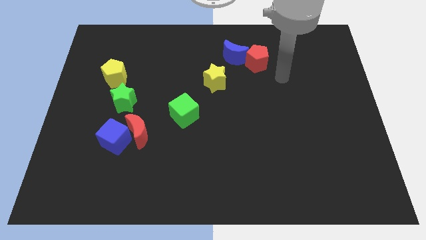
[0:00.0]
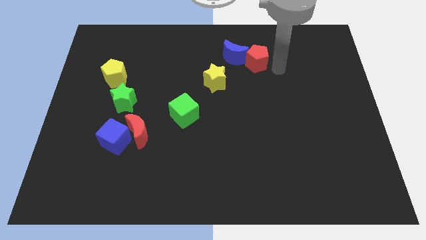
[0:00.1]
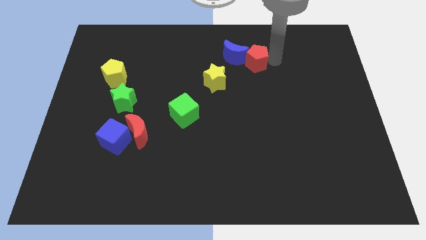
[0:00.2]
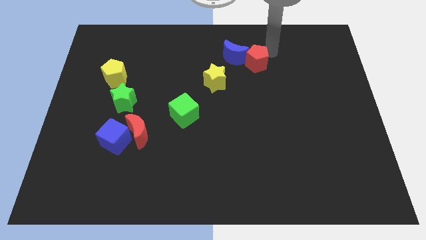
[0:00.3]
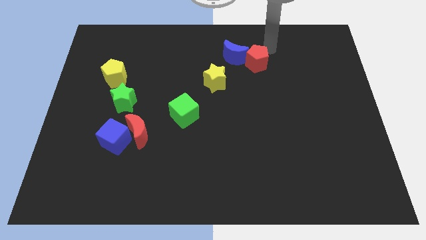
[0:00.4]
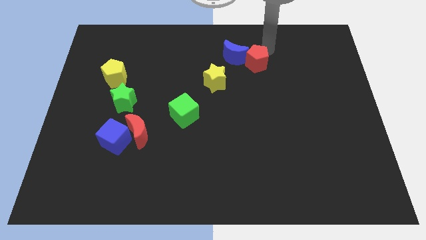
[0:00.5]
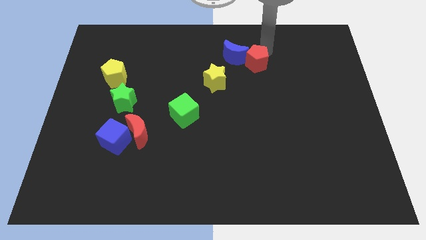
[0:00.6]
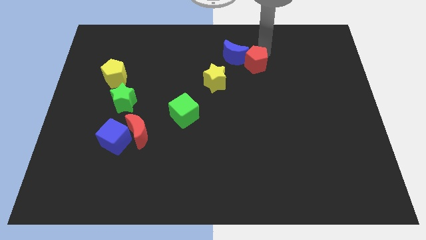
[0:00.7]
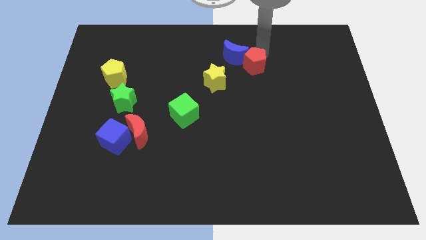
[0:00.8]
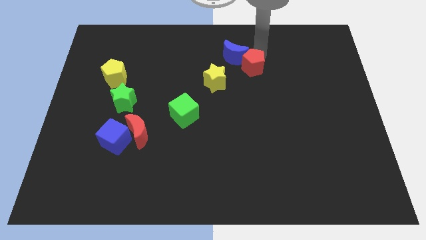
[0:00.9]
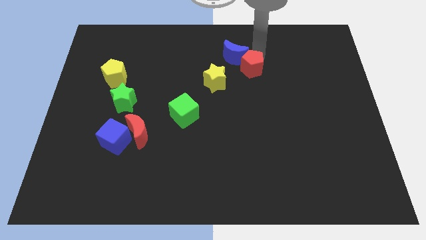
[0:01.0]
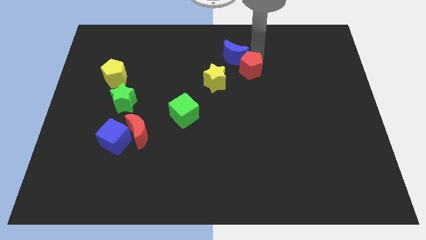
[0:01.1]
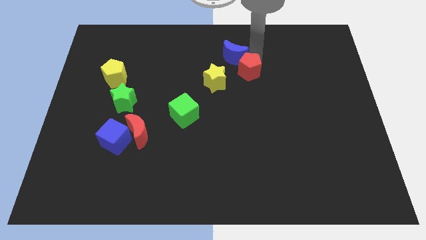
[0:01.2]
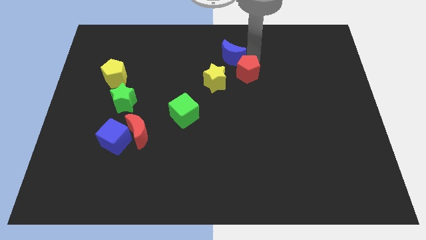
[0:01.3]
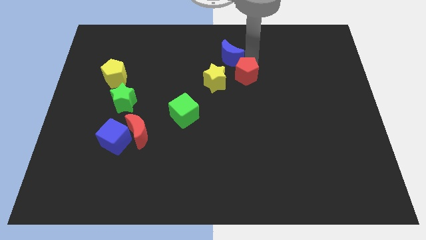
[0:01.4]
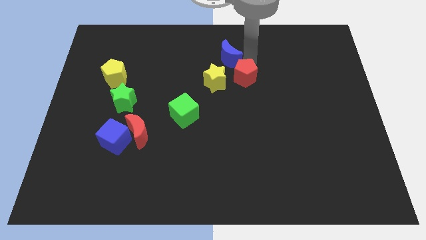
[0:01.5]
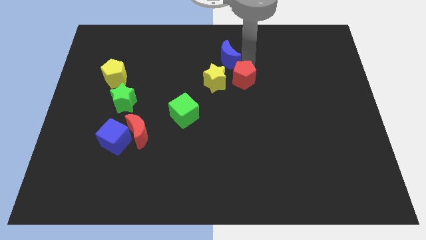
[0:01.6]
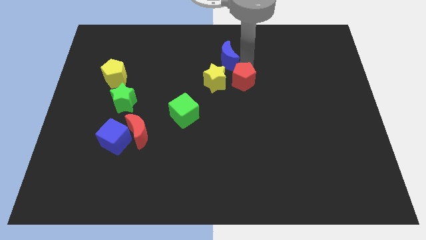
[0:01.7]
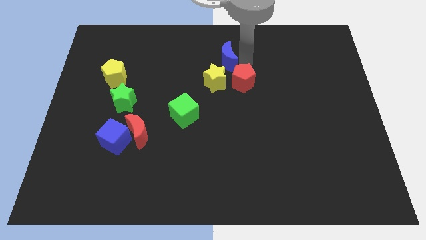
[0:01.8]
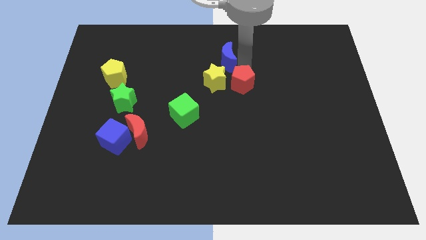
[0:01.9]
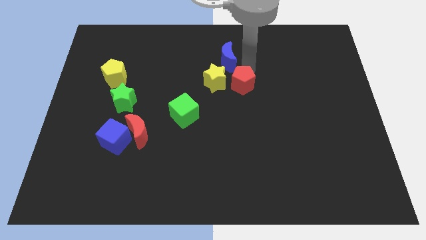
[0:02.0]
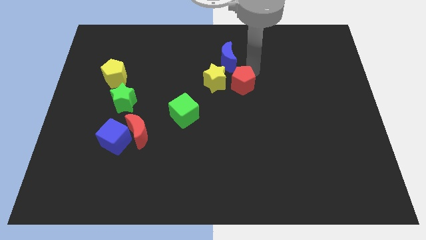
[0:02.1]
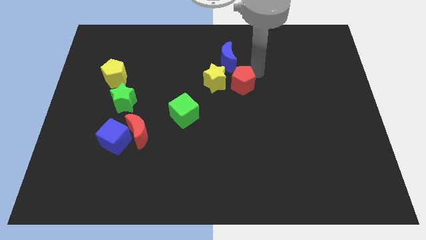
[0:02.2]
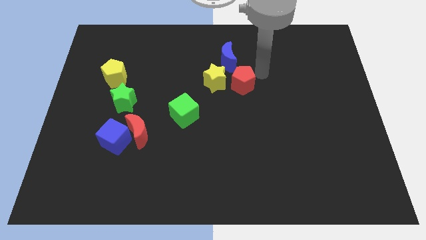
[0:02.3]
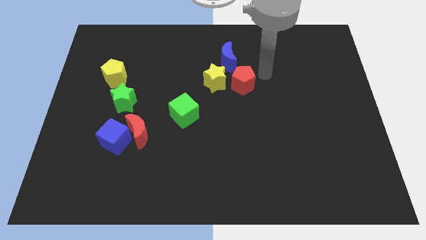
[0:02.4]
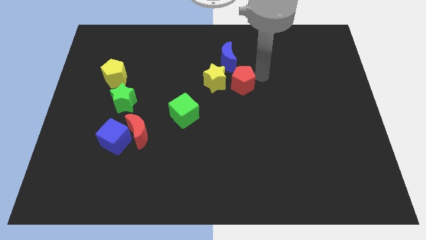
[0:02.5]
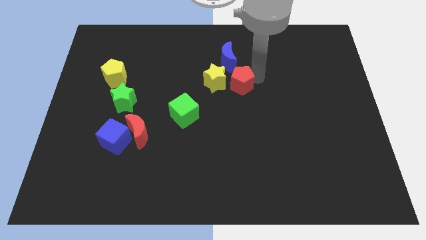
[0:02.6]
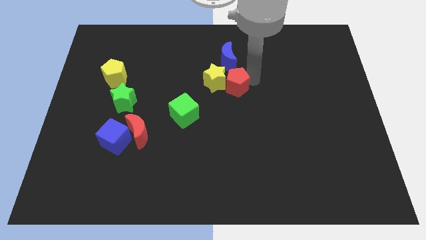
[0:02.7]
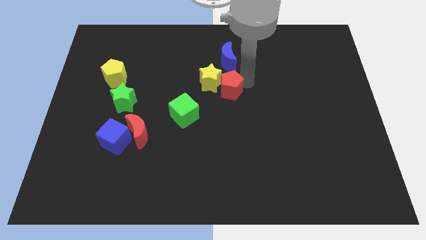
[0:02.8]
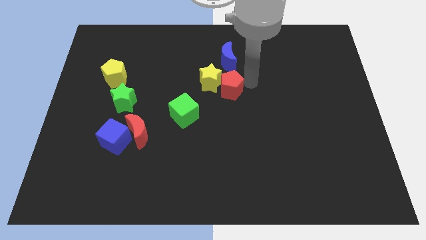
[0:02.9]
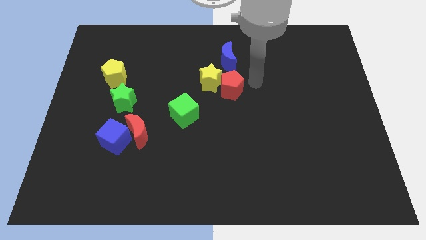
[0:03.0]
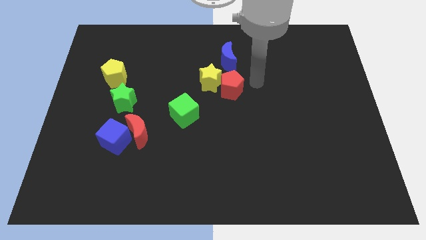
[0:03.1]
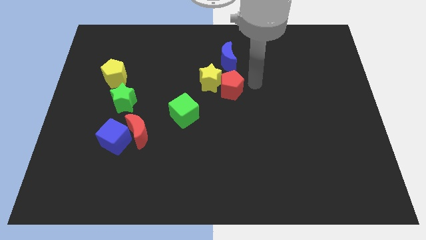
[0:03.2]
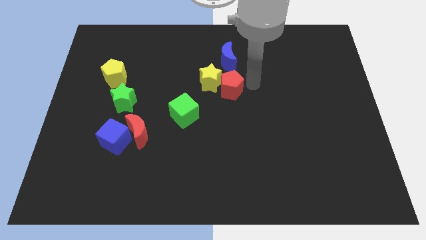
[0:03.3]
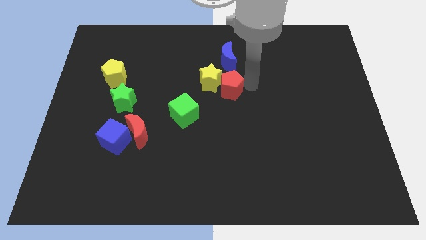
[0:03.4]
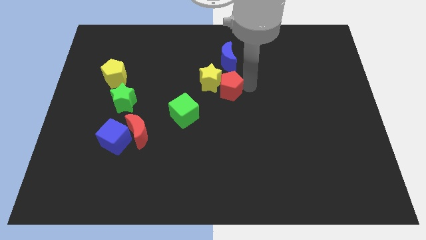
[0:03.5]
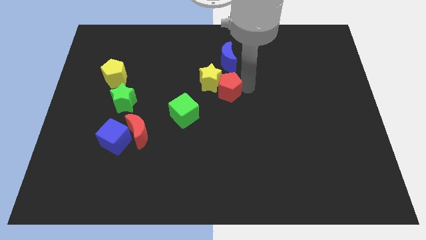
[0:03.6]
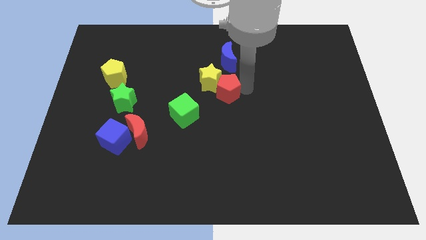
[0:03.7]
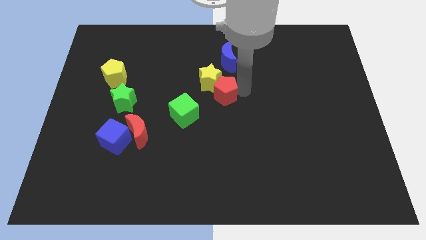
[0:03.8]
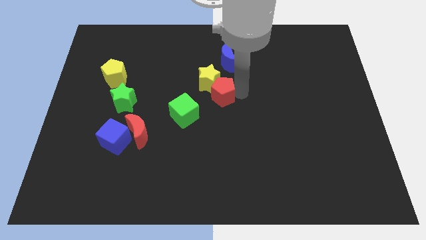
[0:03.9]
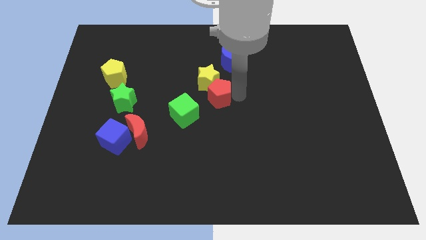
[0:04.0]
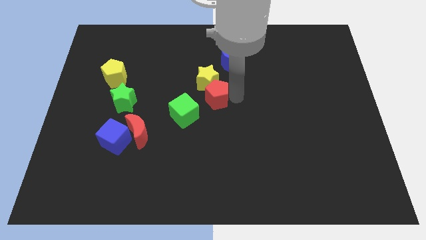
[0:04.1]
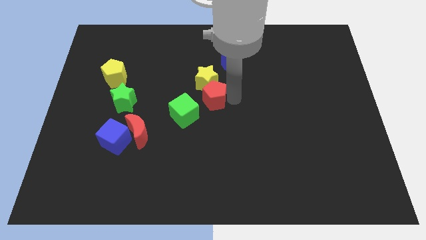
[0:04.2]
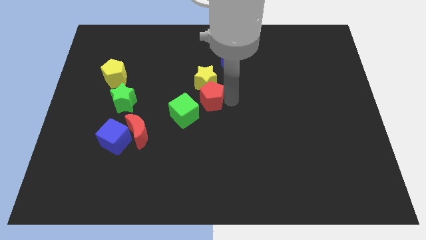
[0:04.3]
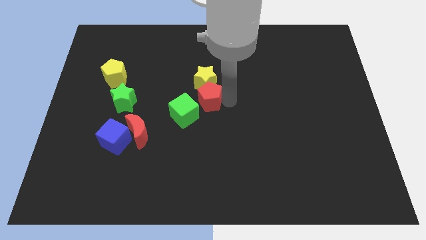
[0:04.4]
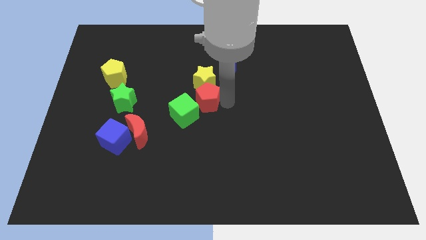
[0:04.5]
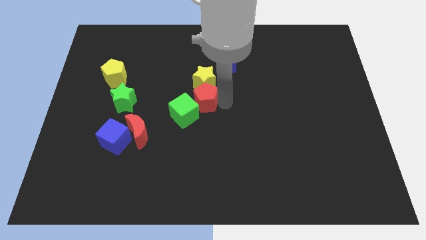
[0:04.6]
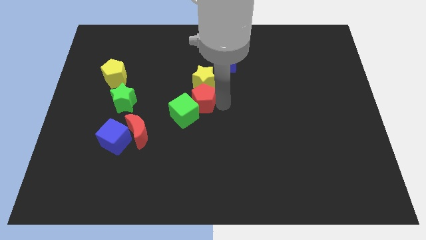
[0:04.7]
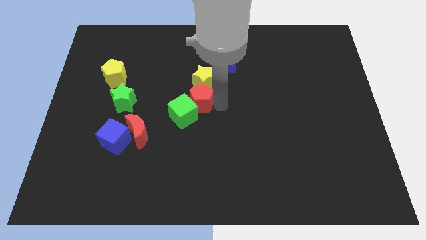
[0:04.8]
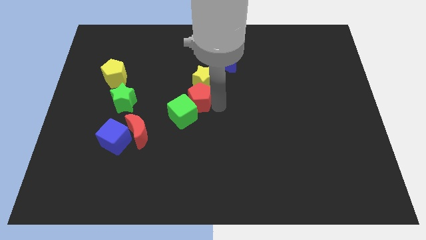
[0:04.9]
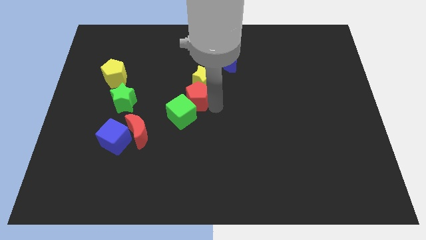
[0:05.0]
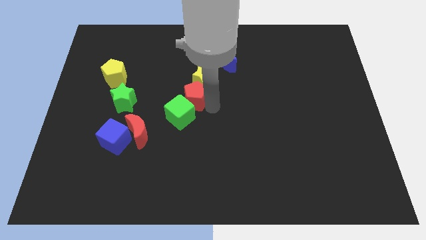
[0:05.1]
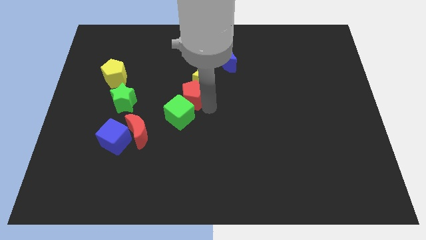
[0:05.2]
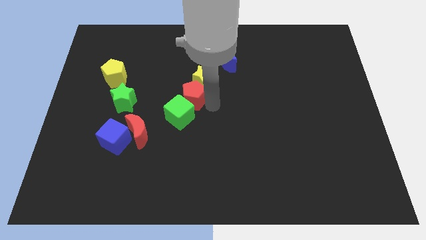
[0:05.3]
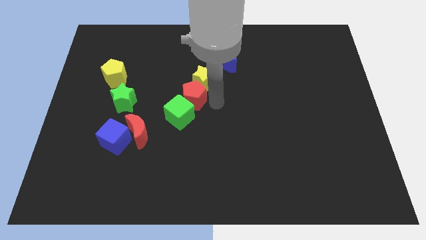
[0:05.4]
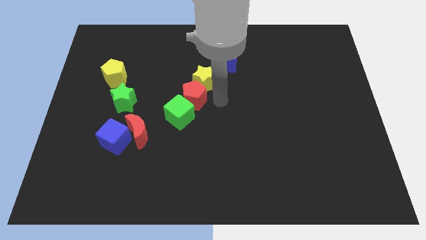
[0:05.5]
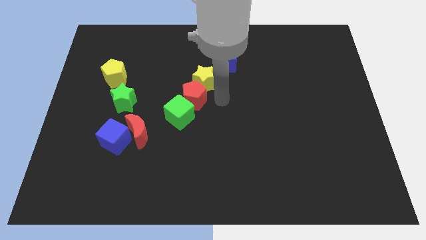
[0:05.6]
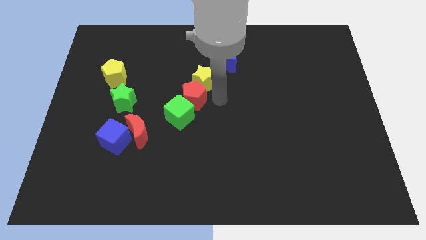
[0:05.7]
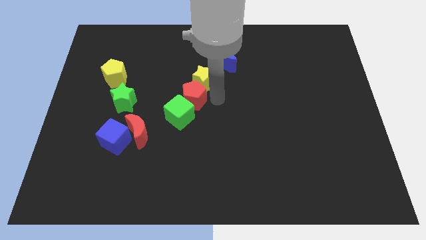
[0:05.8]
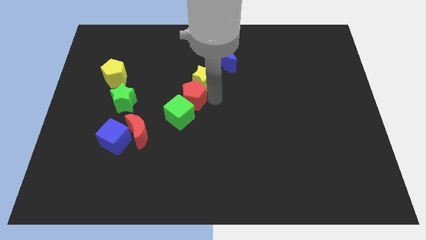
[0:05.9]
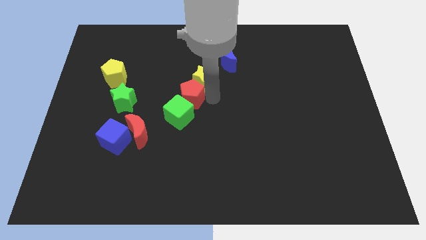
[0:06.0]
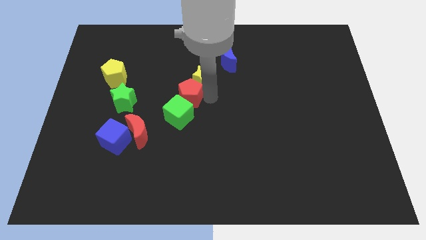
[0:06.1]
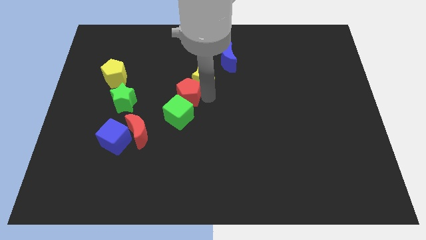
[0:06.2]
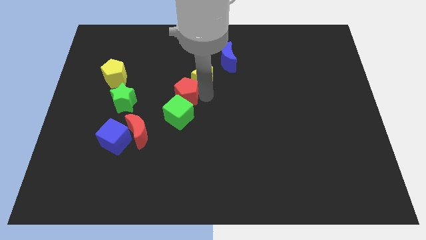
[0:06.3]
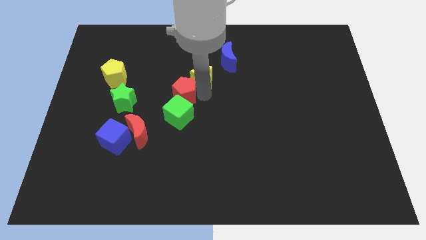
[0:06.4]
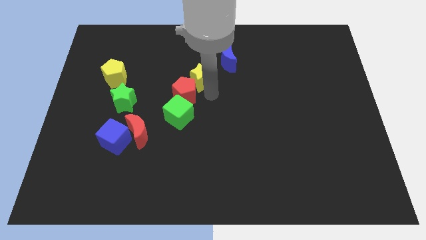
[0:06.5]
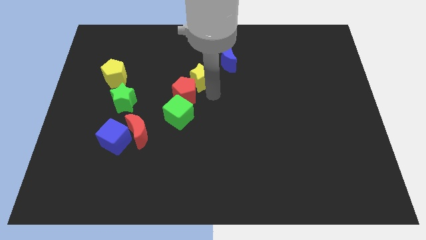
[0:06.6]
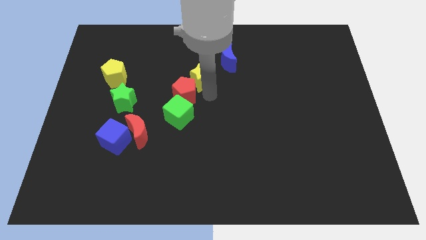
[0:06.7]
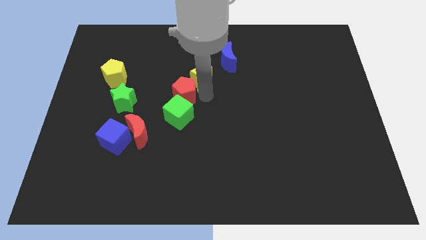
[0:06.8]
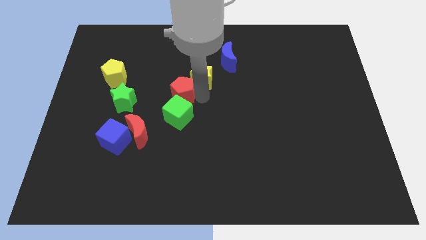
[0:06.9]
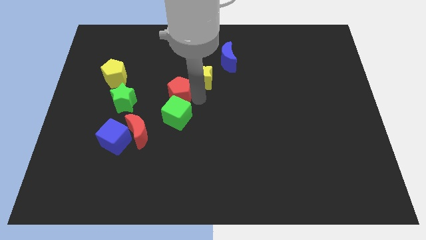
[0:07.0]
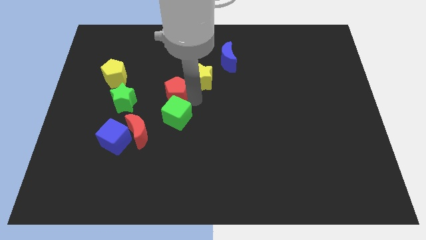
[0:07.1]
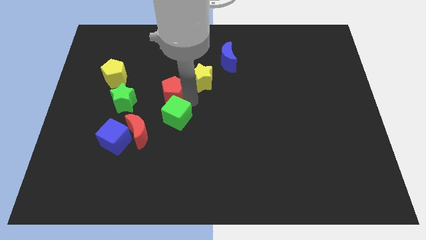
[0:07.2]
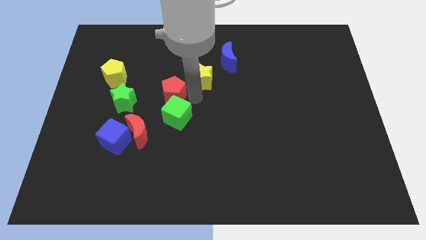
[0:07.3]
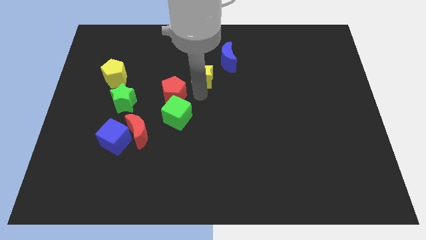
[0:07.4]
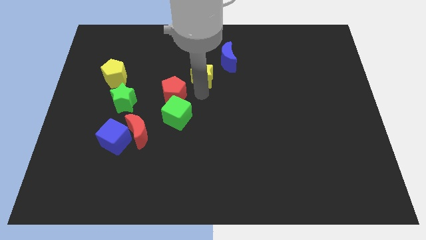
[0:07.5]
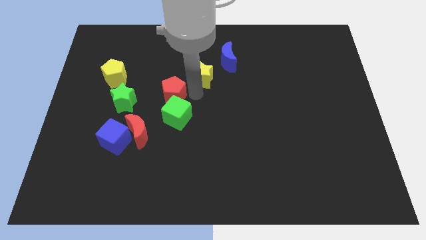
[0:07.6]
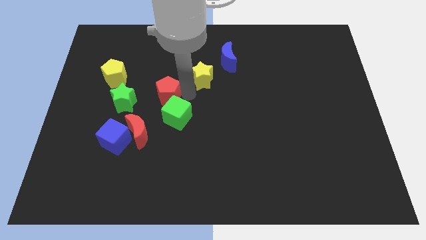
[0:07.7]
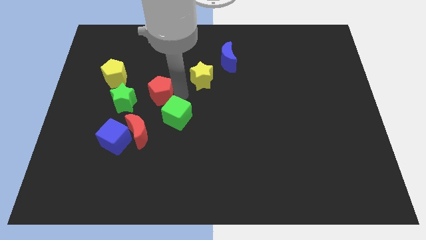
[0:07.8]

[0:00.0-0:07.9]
push the red pentagon to the top of the red moon
